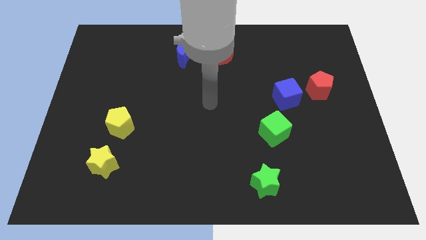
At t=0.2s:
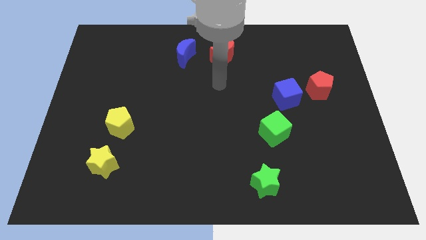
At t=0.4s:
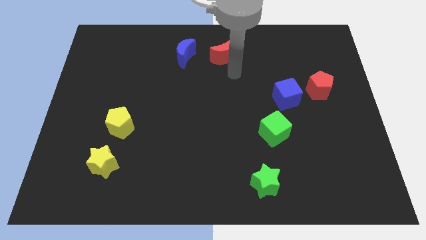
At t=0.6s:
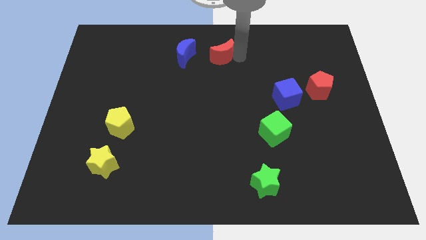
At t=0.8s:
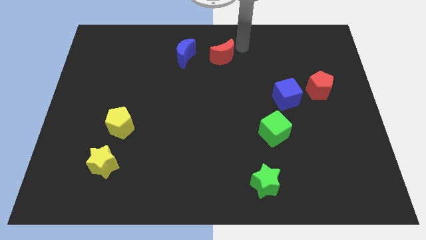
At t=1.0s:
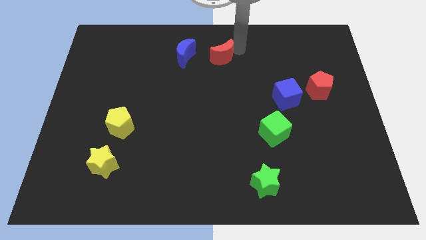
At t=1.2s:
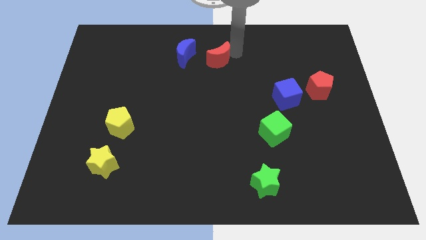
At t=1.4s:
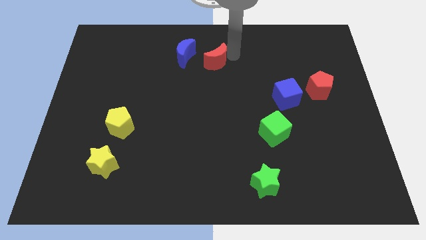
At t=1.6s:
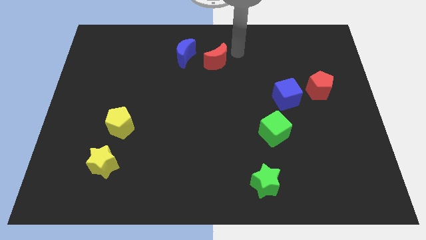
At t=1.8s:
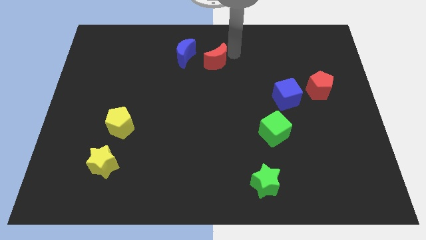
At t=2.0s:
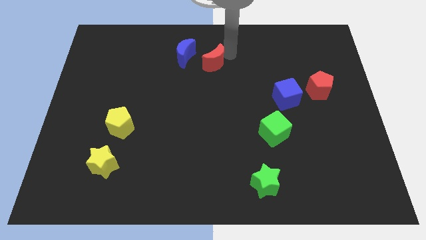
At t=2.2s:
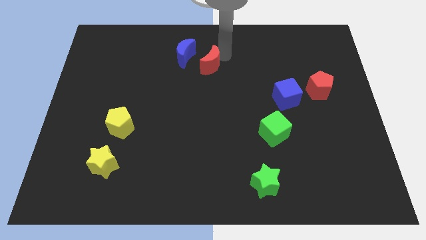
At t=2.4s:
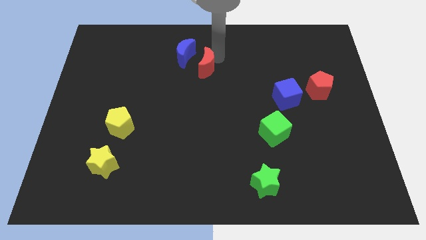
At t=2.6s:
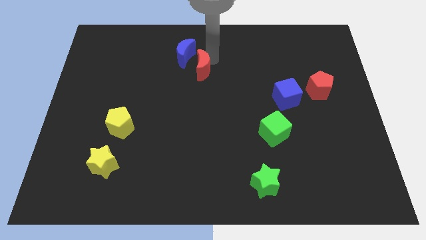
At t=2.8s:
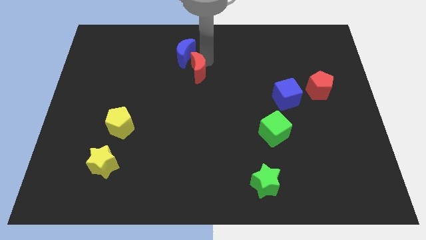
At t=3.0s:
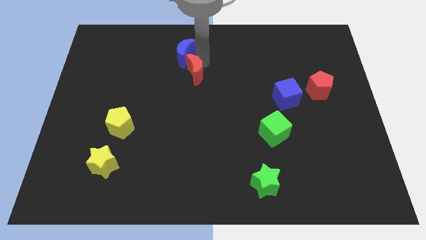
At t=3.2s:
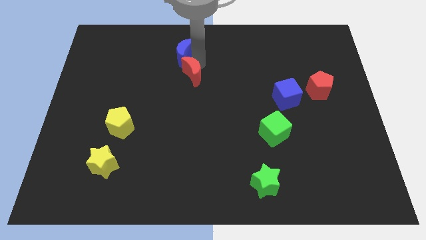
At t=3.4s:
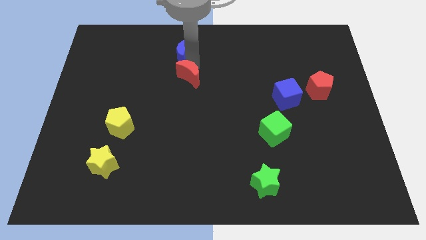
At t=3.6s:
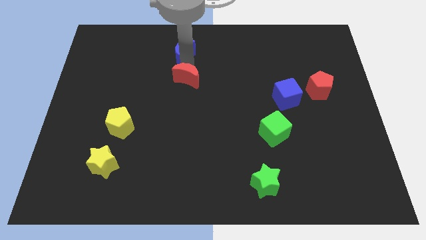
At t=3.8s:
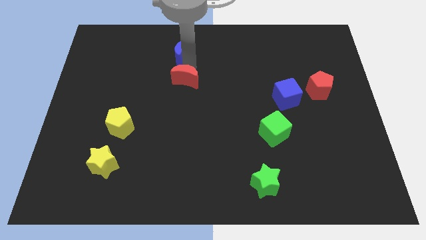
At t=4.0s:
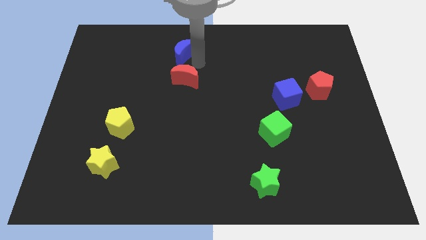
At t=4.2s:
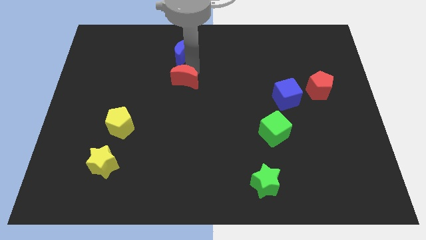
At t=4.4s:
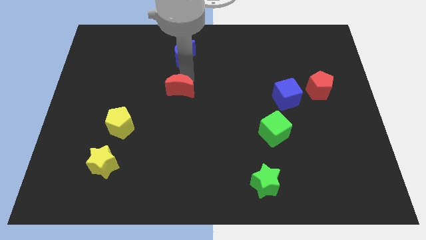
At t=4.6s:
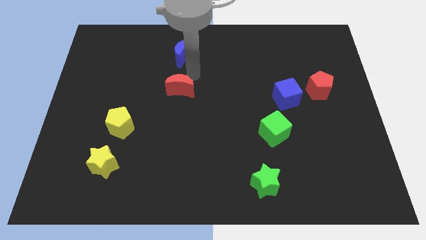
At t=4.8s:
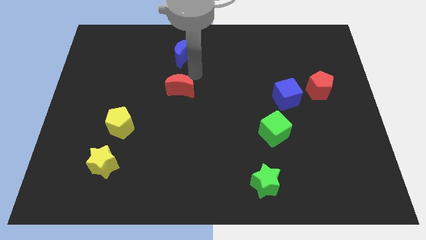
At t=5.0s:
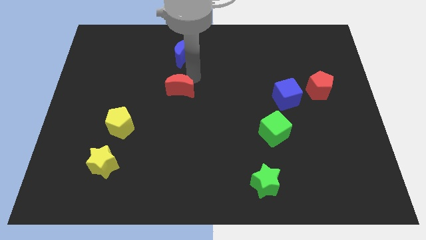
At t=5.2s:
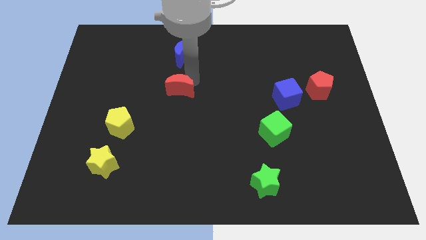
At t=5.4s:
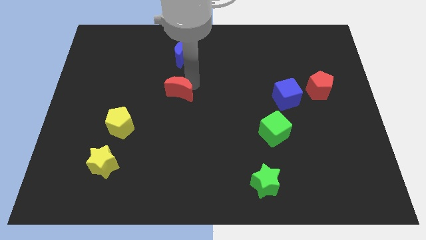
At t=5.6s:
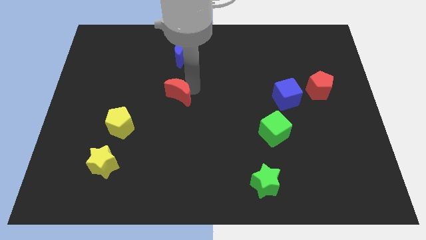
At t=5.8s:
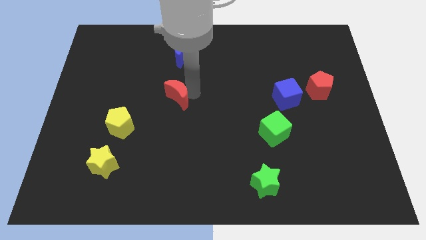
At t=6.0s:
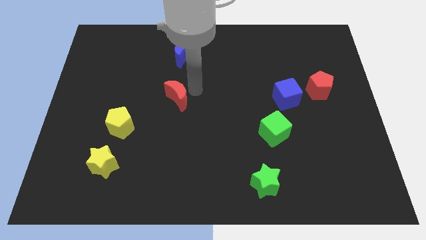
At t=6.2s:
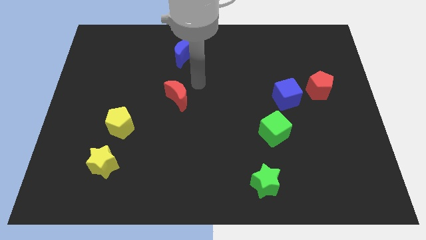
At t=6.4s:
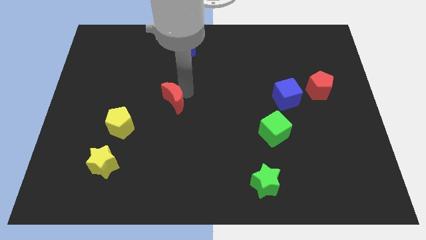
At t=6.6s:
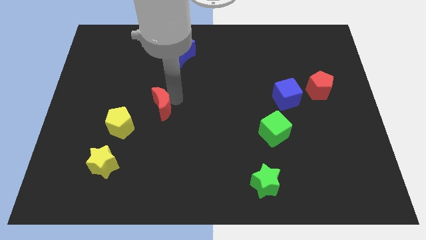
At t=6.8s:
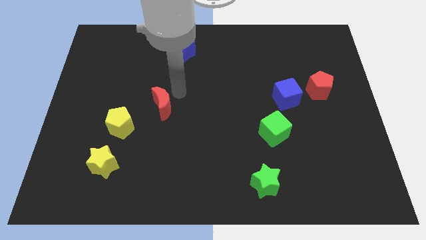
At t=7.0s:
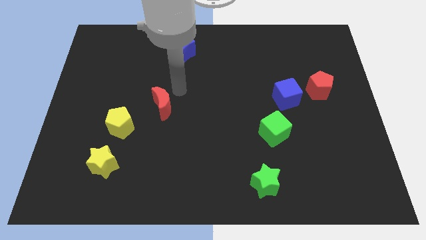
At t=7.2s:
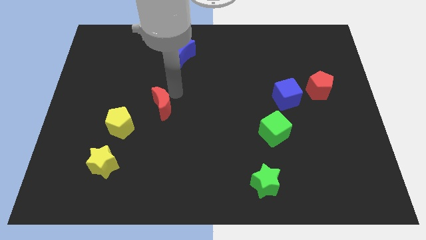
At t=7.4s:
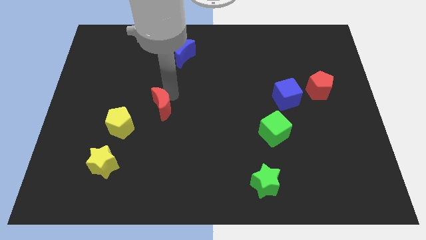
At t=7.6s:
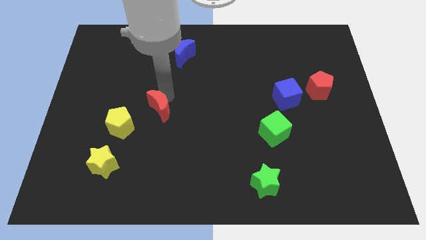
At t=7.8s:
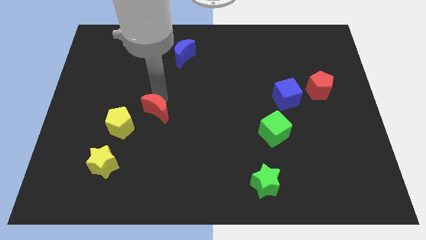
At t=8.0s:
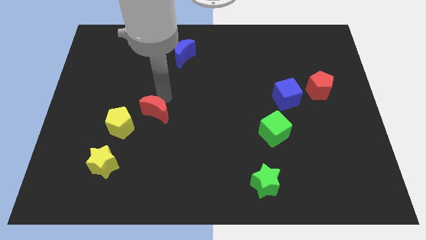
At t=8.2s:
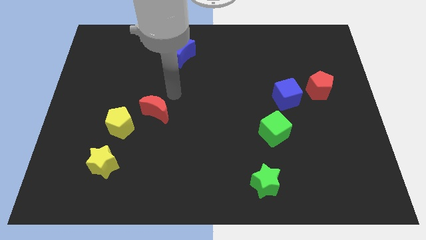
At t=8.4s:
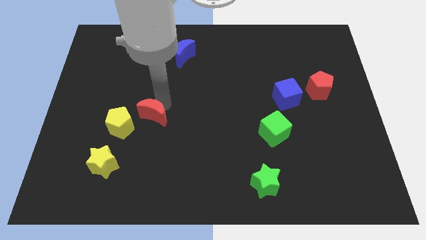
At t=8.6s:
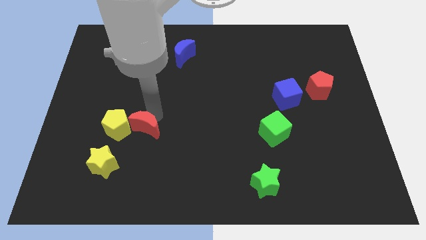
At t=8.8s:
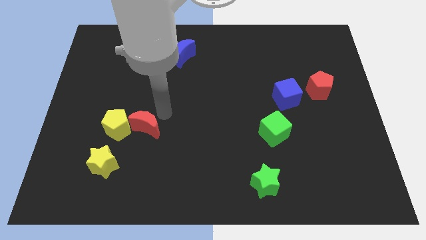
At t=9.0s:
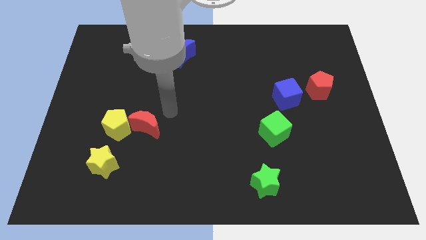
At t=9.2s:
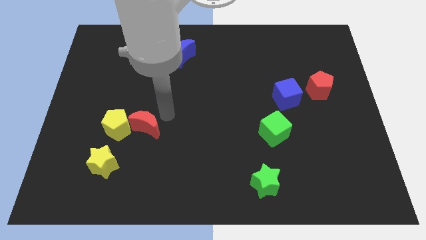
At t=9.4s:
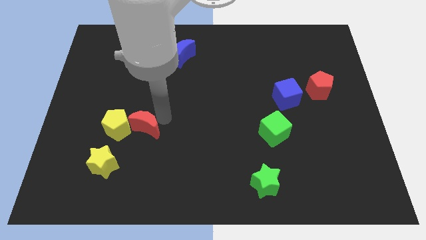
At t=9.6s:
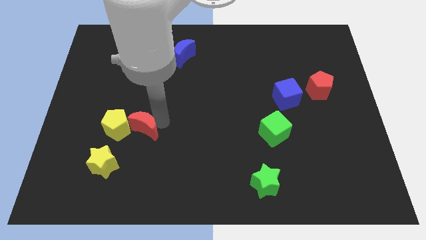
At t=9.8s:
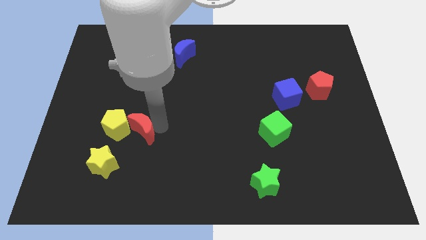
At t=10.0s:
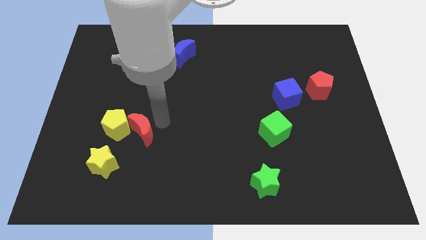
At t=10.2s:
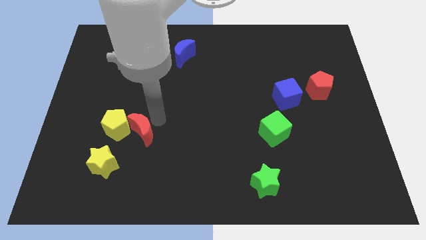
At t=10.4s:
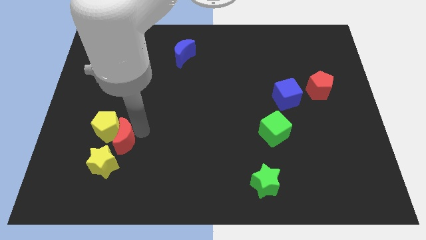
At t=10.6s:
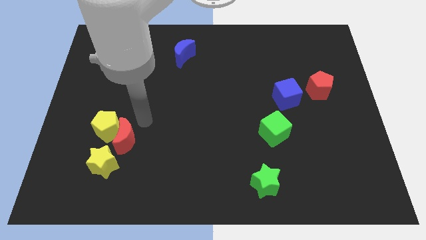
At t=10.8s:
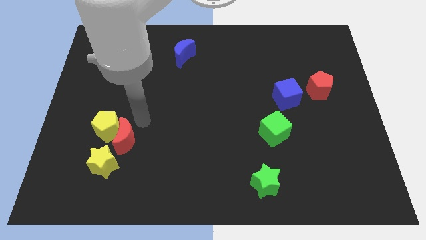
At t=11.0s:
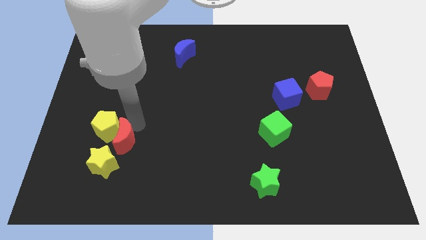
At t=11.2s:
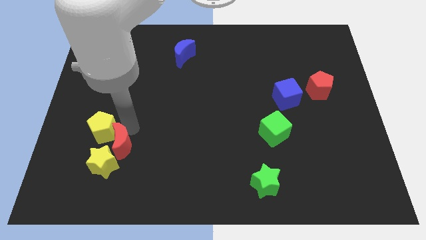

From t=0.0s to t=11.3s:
push the red moon close to the yellow star
